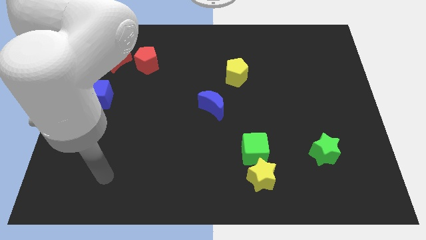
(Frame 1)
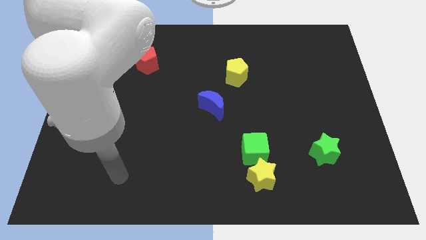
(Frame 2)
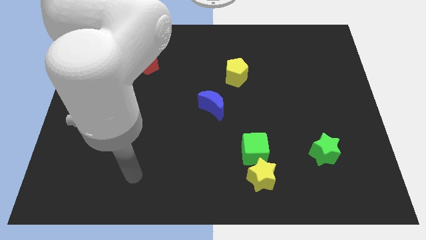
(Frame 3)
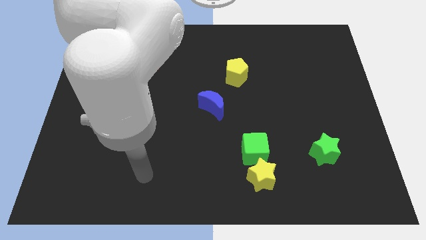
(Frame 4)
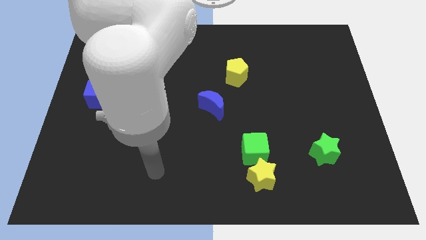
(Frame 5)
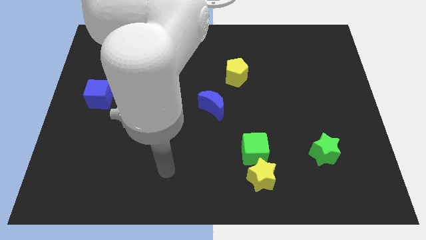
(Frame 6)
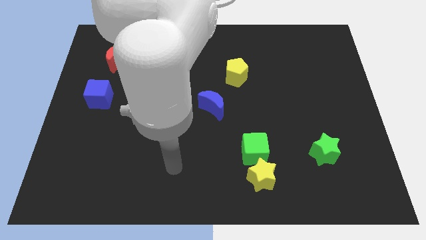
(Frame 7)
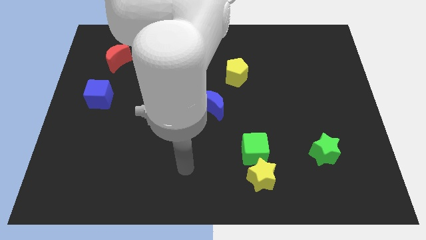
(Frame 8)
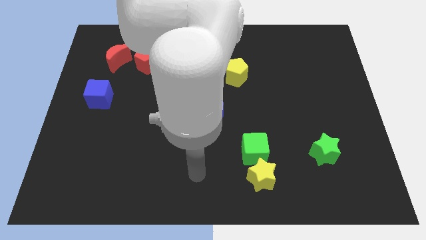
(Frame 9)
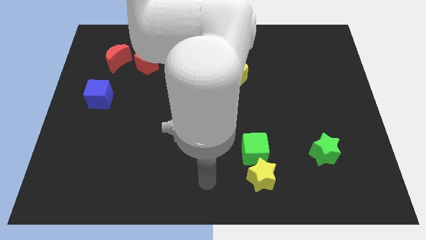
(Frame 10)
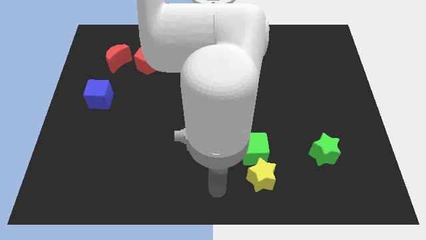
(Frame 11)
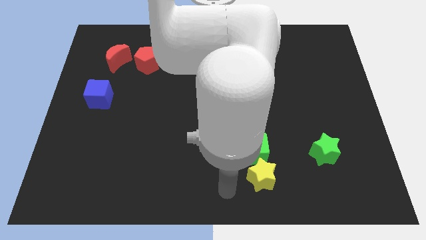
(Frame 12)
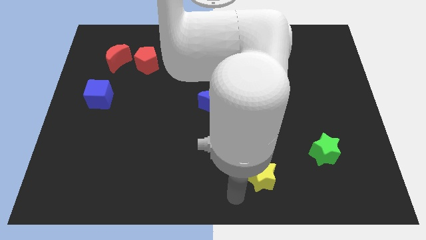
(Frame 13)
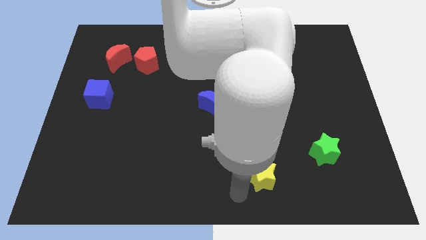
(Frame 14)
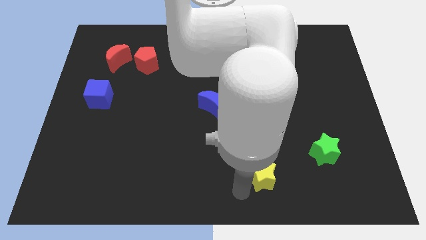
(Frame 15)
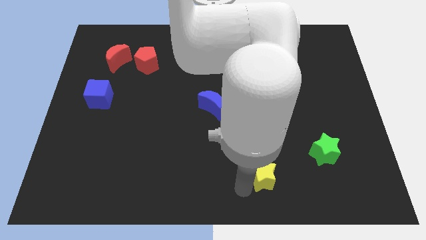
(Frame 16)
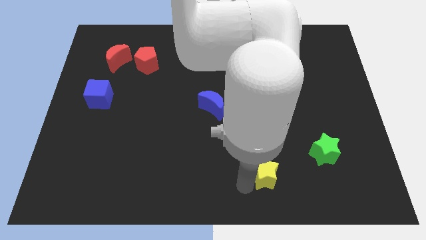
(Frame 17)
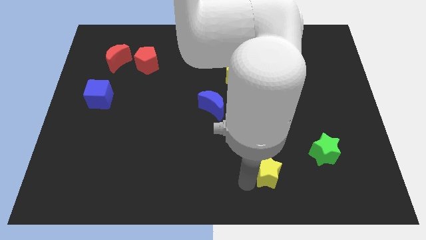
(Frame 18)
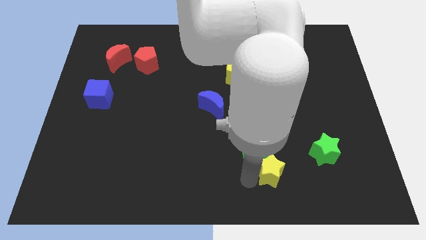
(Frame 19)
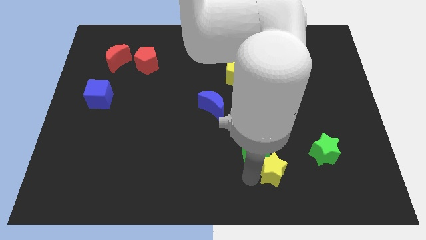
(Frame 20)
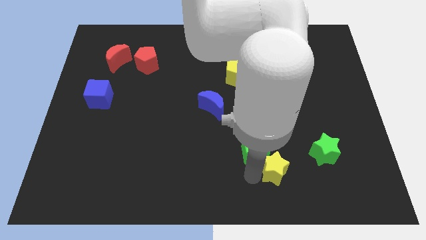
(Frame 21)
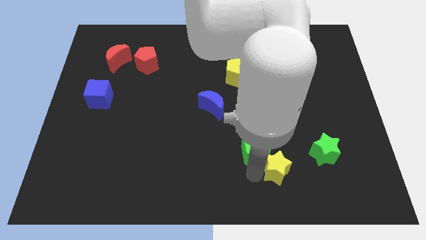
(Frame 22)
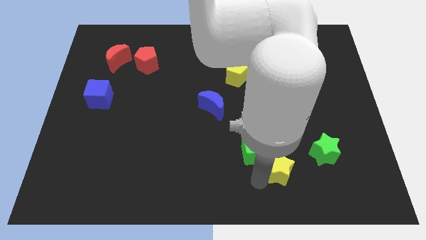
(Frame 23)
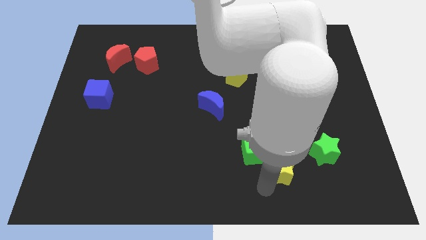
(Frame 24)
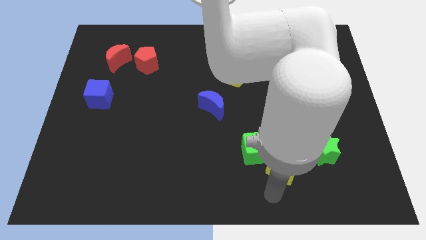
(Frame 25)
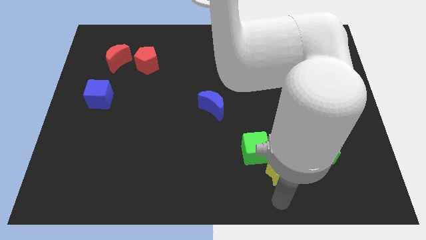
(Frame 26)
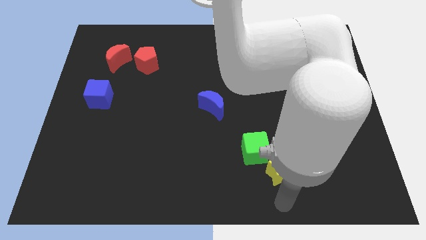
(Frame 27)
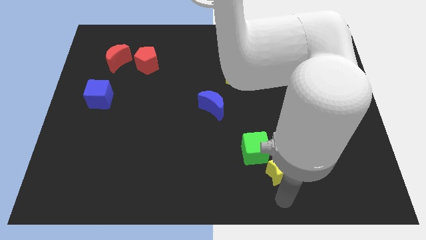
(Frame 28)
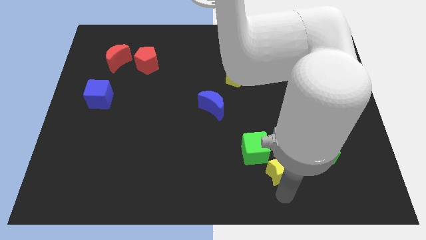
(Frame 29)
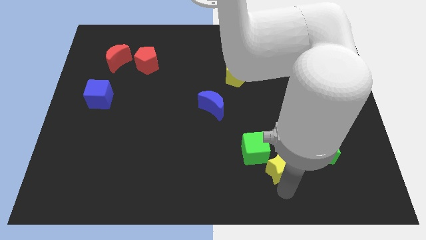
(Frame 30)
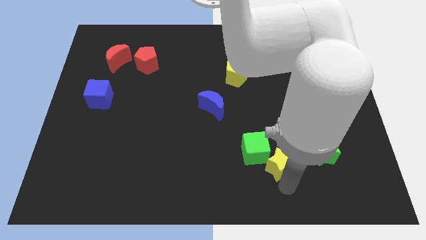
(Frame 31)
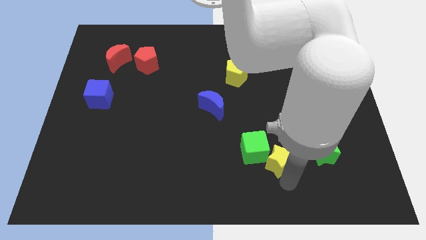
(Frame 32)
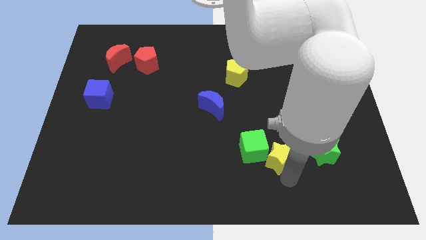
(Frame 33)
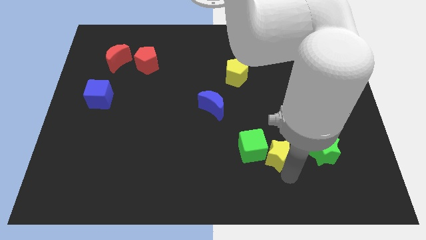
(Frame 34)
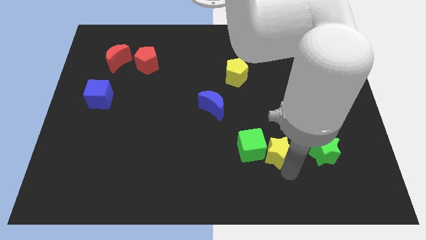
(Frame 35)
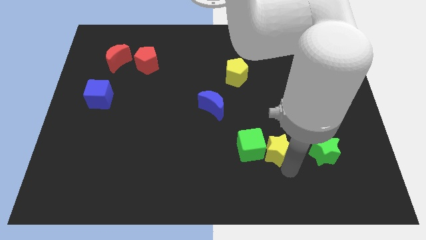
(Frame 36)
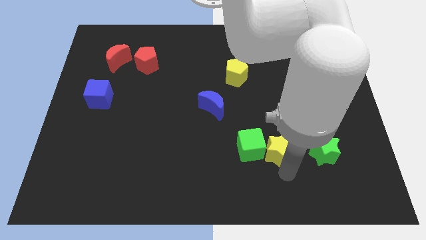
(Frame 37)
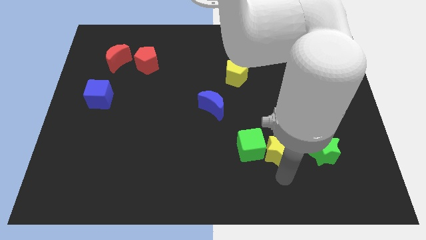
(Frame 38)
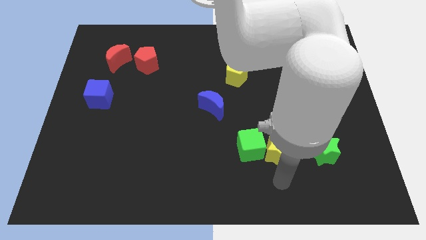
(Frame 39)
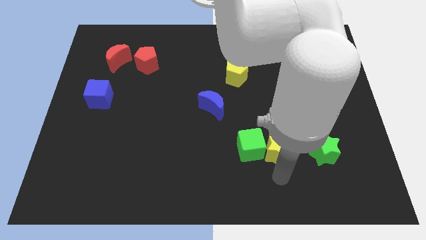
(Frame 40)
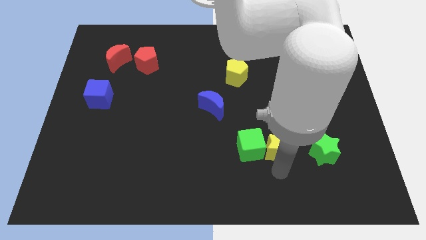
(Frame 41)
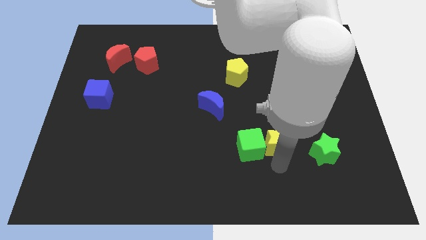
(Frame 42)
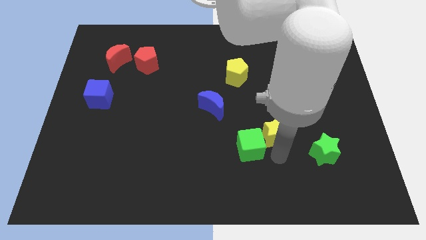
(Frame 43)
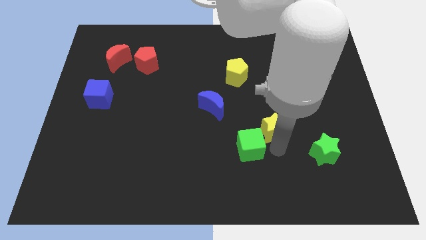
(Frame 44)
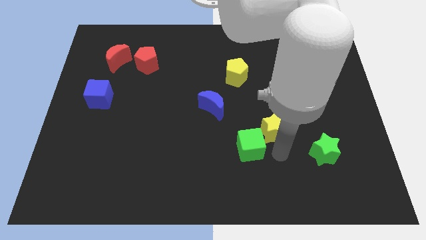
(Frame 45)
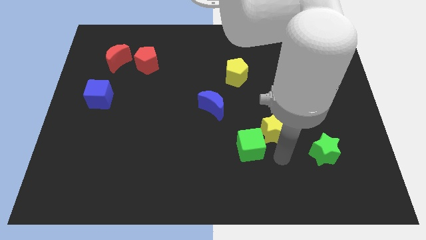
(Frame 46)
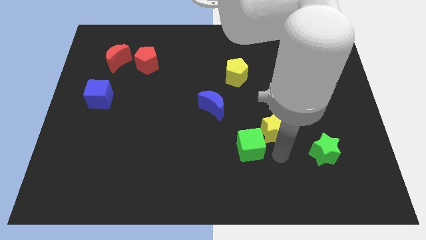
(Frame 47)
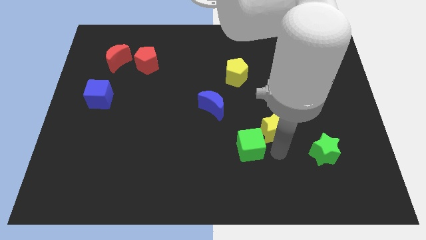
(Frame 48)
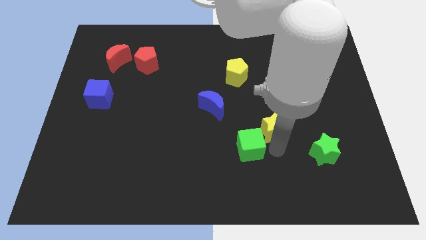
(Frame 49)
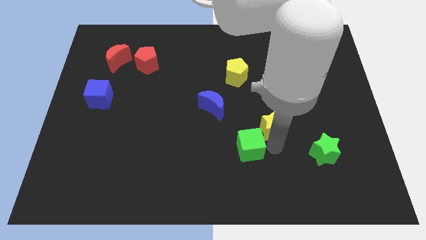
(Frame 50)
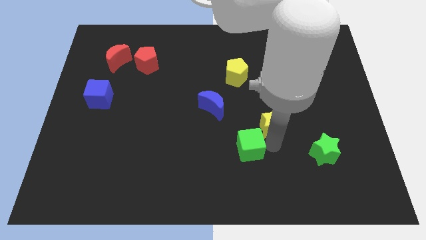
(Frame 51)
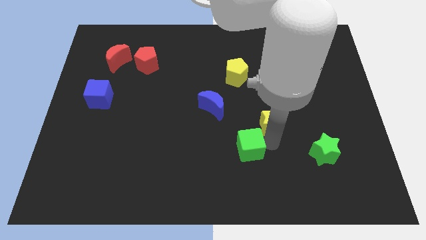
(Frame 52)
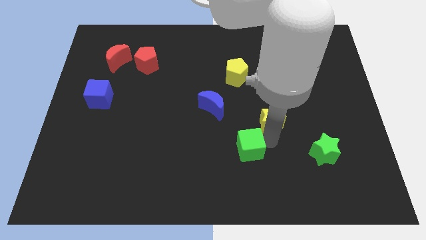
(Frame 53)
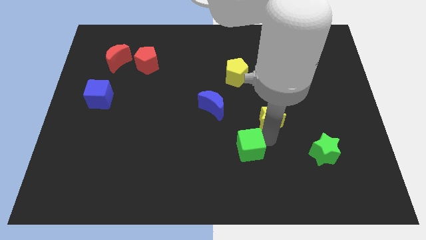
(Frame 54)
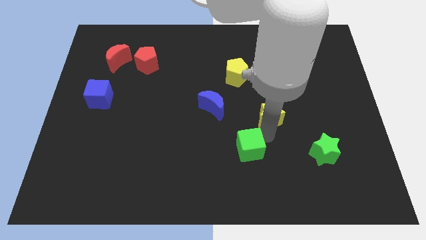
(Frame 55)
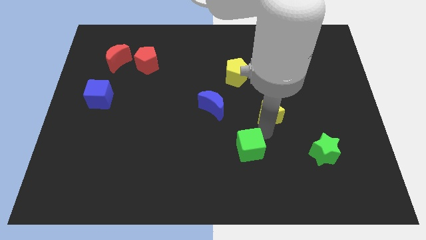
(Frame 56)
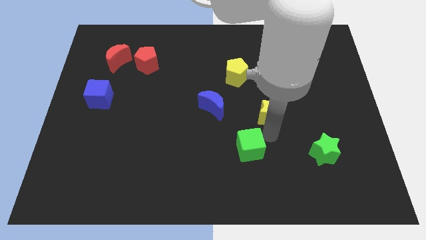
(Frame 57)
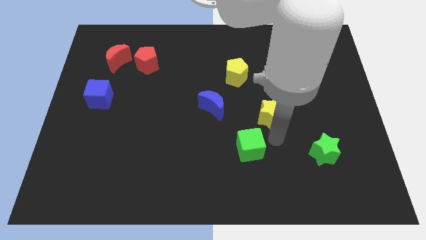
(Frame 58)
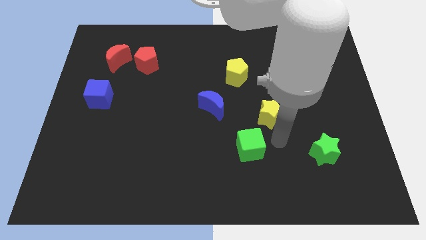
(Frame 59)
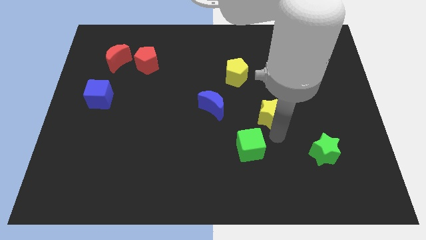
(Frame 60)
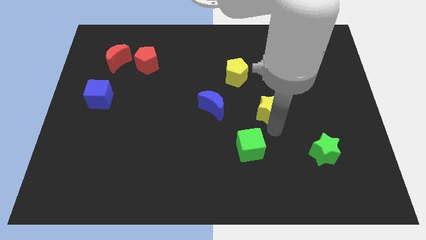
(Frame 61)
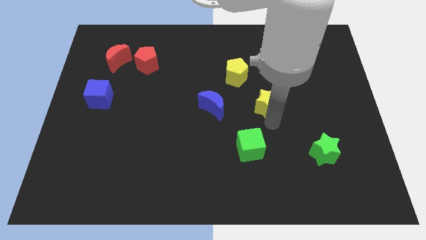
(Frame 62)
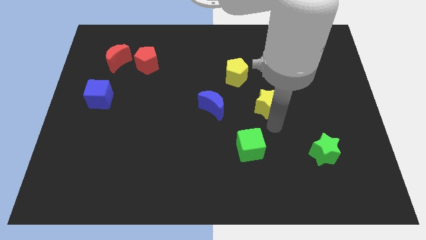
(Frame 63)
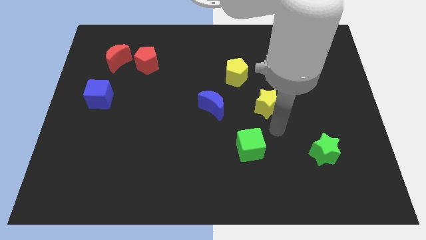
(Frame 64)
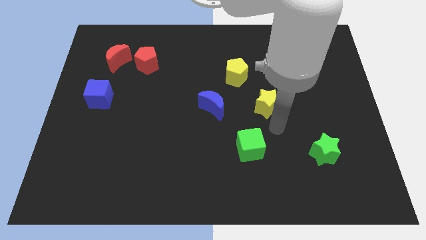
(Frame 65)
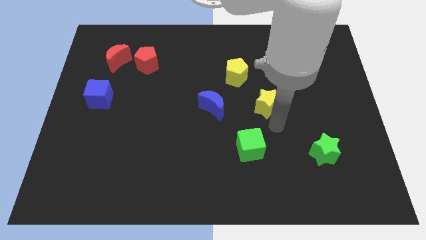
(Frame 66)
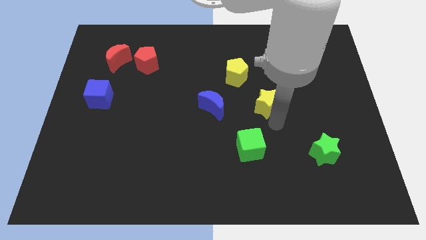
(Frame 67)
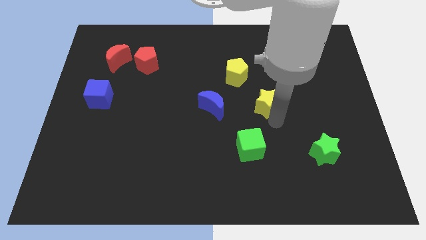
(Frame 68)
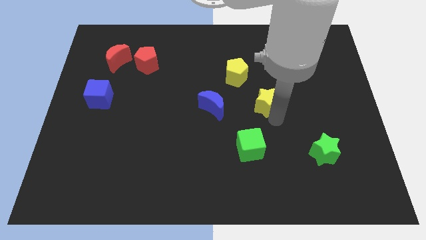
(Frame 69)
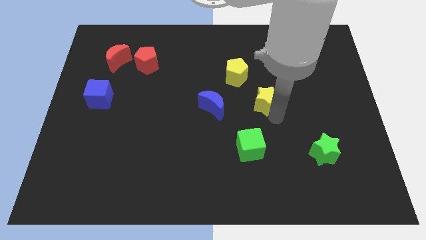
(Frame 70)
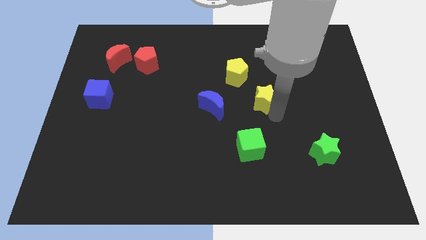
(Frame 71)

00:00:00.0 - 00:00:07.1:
slide the yellow star up

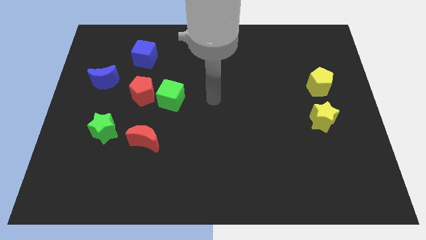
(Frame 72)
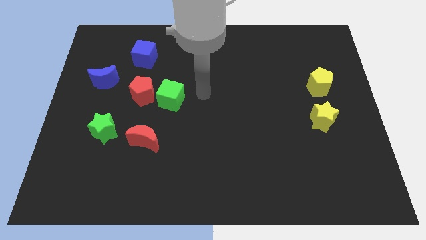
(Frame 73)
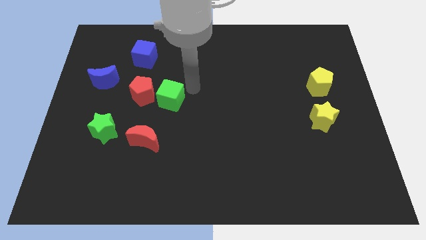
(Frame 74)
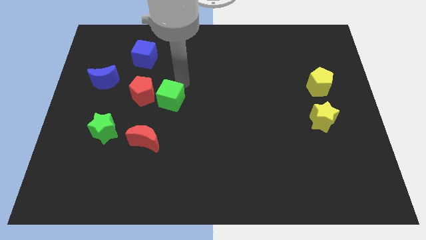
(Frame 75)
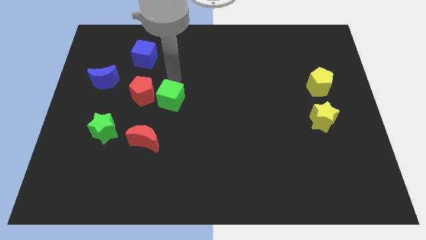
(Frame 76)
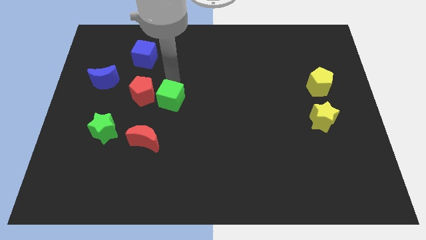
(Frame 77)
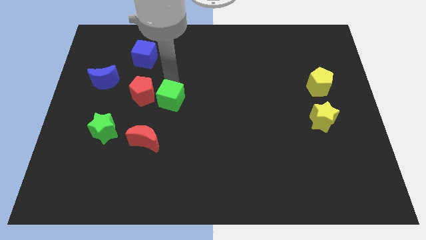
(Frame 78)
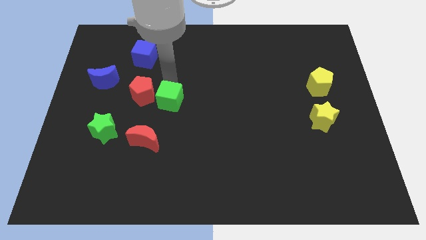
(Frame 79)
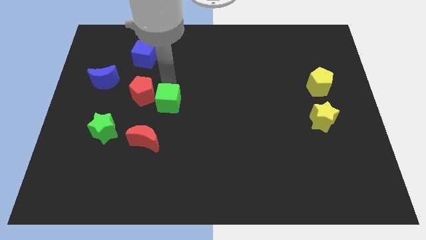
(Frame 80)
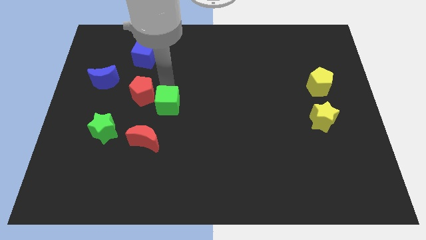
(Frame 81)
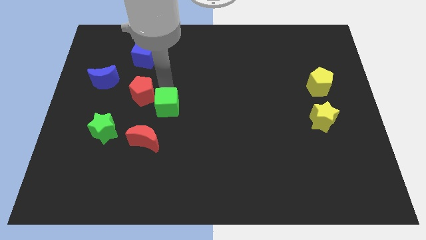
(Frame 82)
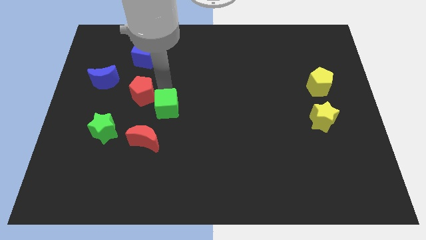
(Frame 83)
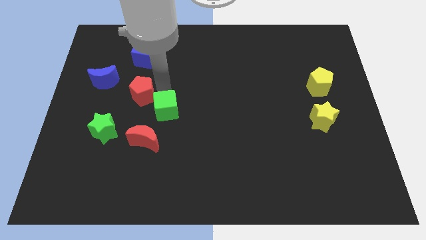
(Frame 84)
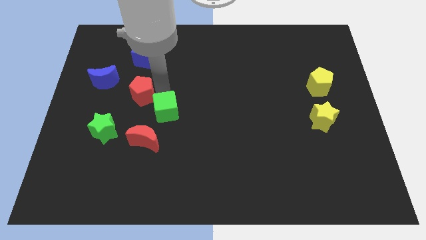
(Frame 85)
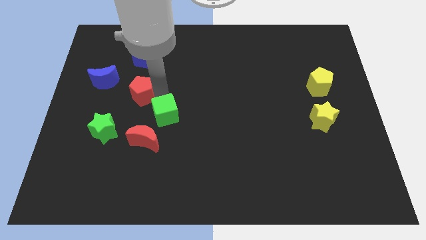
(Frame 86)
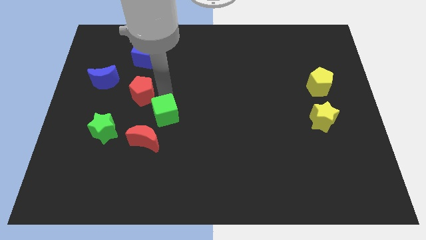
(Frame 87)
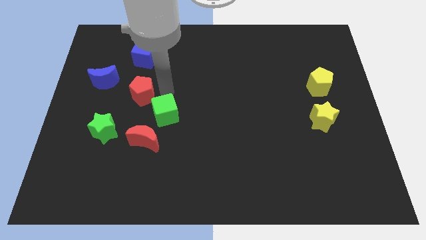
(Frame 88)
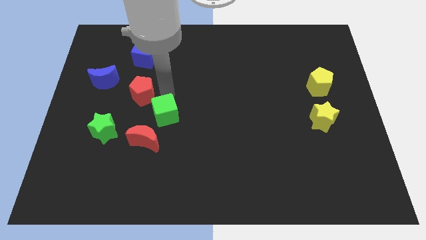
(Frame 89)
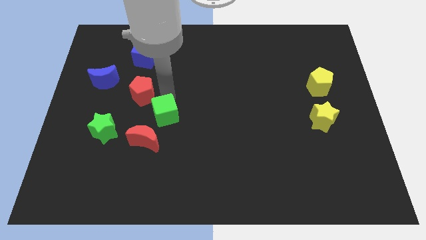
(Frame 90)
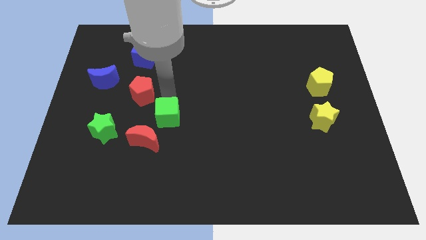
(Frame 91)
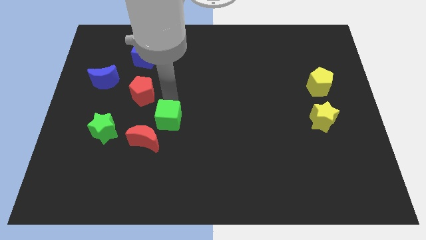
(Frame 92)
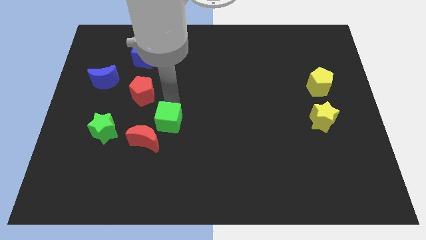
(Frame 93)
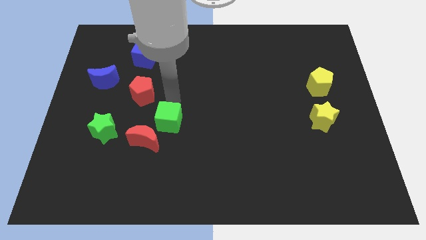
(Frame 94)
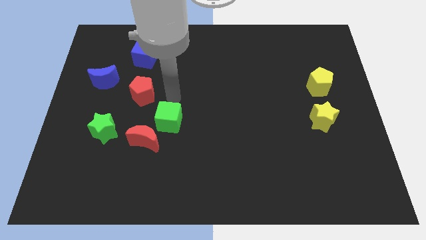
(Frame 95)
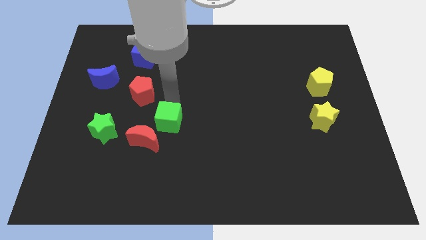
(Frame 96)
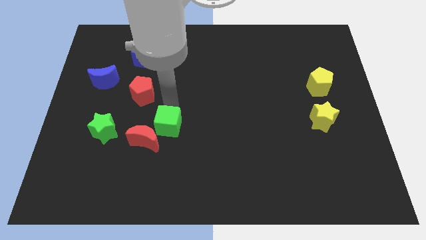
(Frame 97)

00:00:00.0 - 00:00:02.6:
slightly slide the green cube downwards
